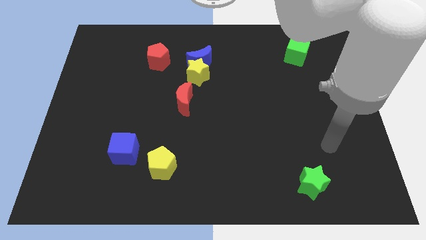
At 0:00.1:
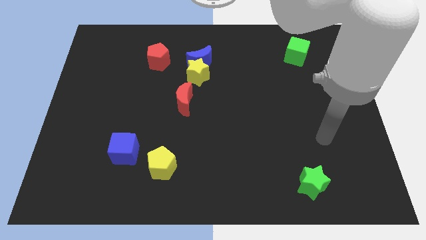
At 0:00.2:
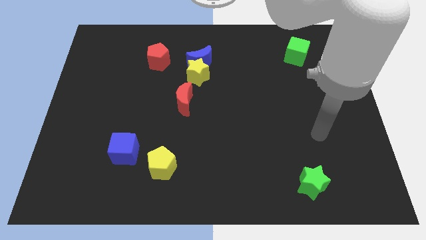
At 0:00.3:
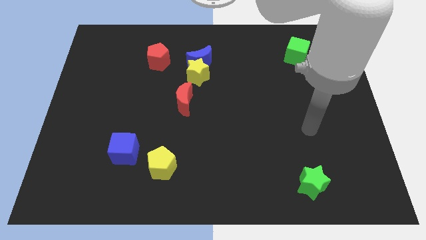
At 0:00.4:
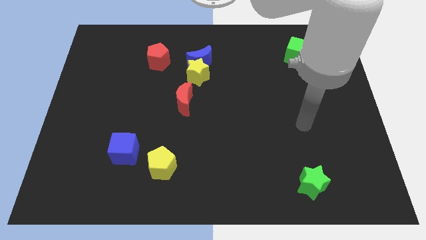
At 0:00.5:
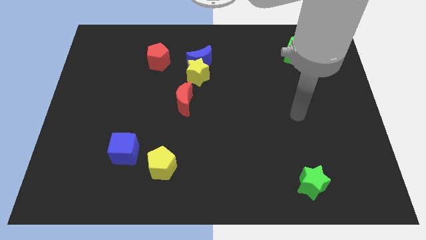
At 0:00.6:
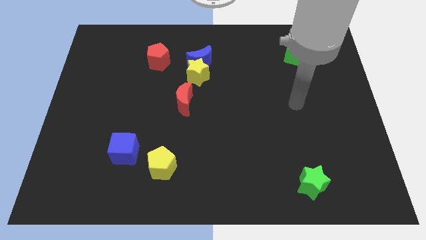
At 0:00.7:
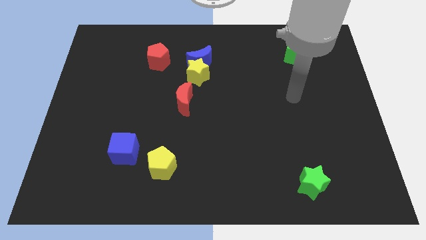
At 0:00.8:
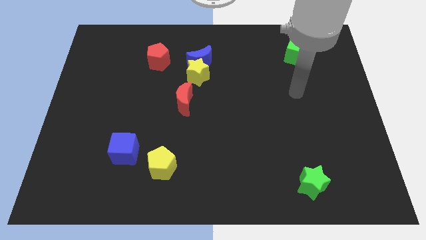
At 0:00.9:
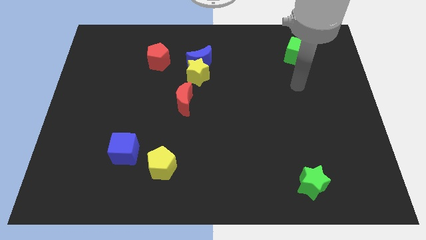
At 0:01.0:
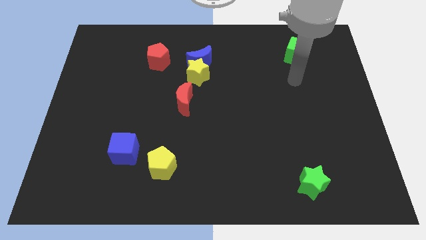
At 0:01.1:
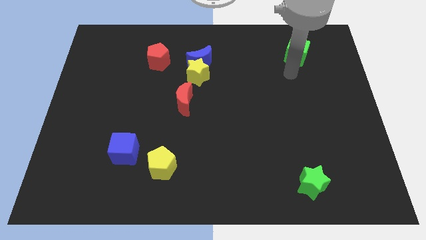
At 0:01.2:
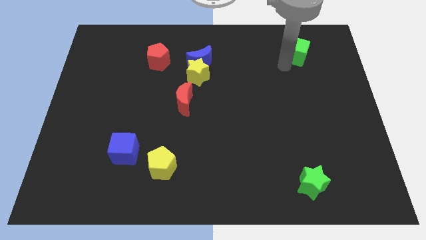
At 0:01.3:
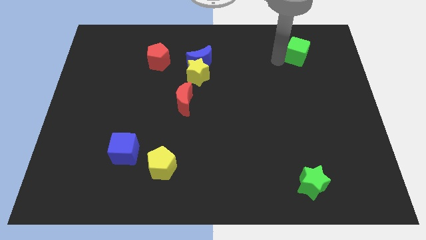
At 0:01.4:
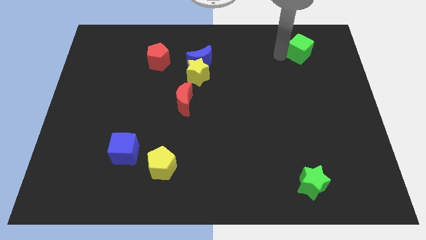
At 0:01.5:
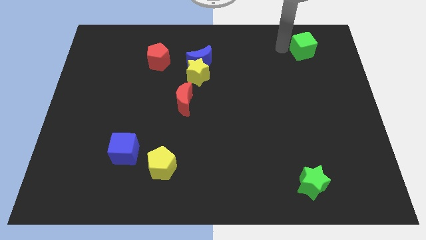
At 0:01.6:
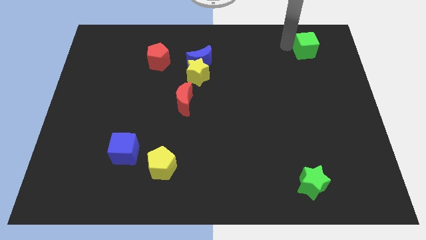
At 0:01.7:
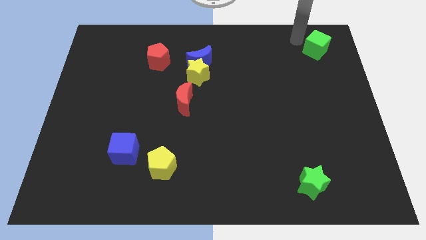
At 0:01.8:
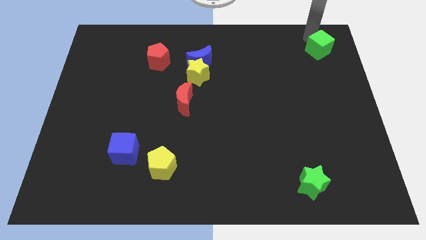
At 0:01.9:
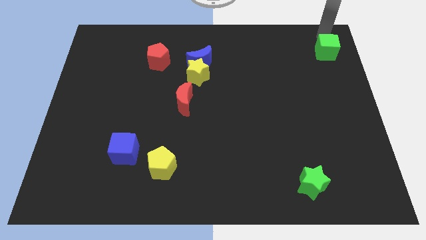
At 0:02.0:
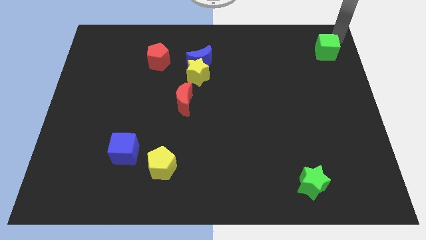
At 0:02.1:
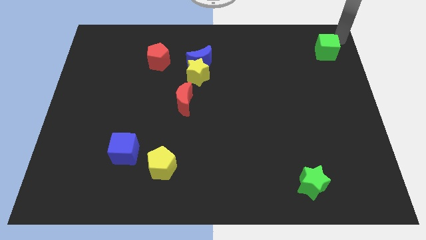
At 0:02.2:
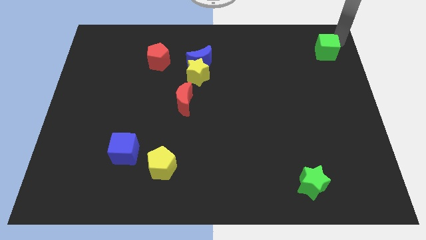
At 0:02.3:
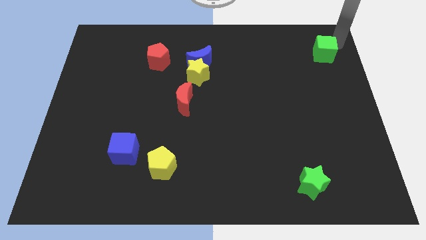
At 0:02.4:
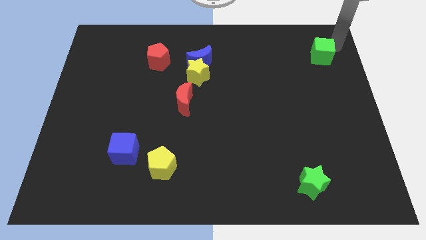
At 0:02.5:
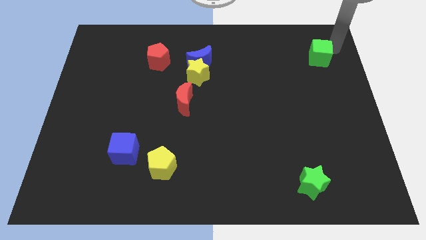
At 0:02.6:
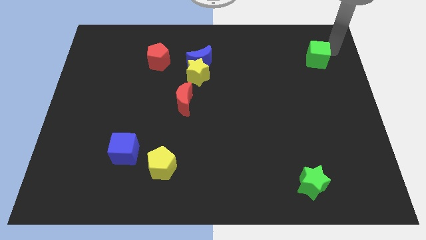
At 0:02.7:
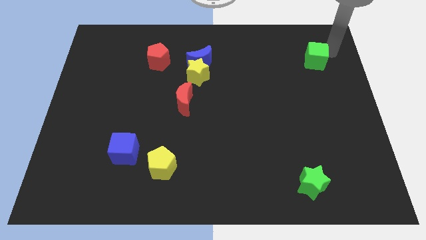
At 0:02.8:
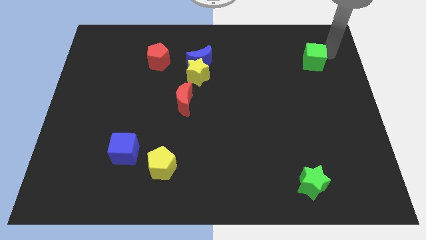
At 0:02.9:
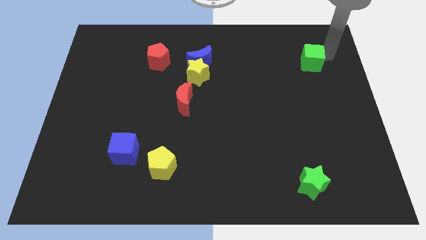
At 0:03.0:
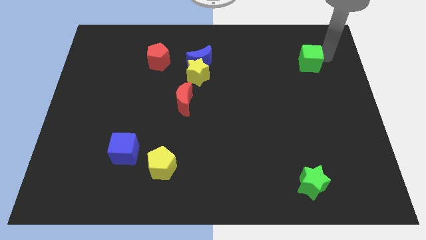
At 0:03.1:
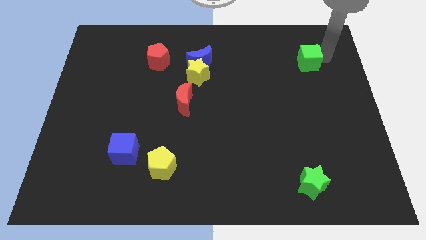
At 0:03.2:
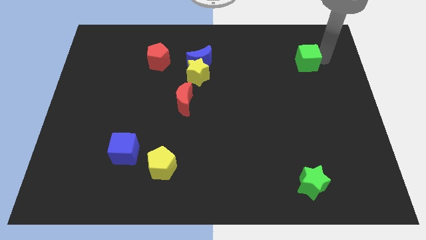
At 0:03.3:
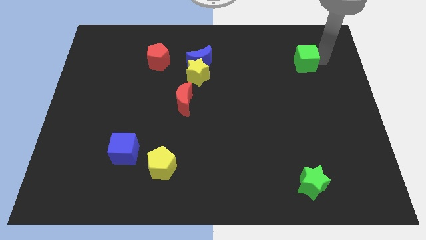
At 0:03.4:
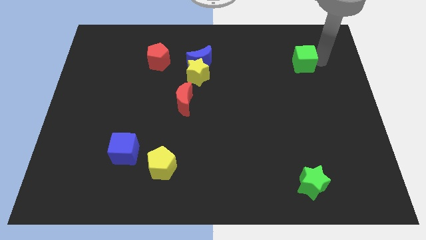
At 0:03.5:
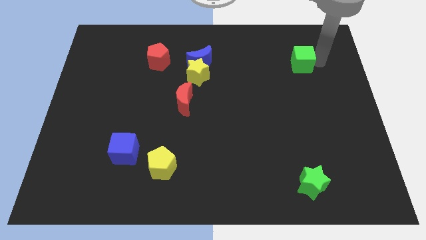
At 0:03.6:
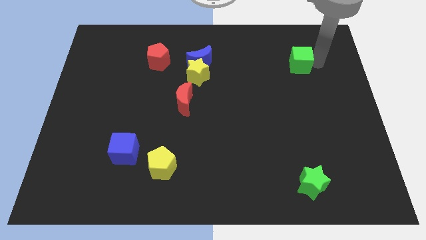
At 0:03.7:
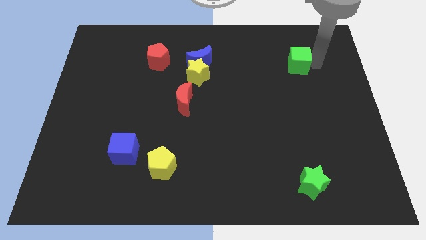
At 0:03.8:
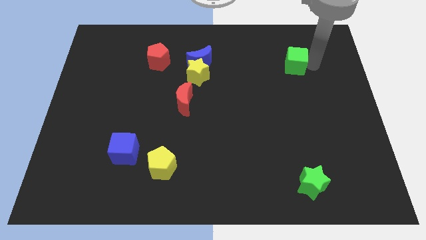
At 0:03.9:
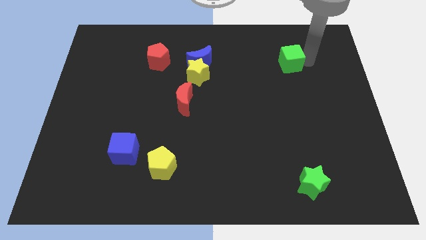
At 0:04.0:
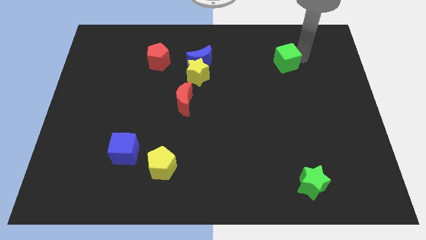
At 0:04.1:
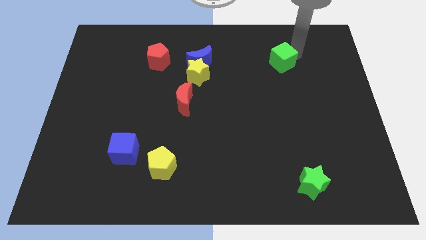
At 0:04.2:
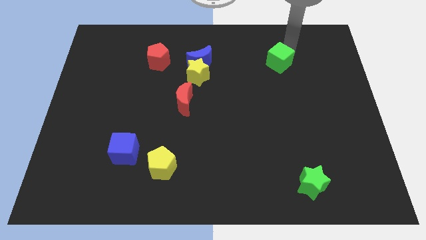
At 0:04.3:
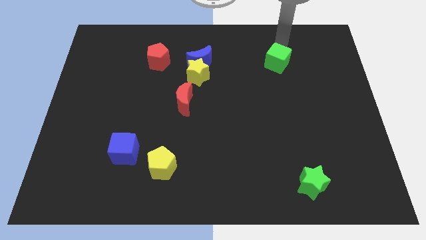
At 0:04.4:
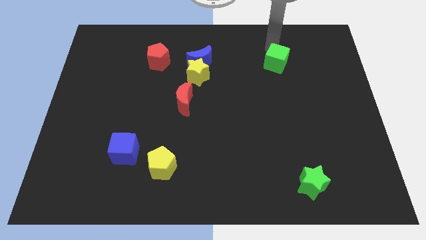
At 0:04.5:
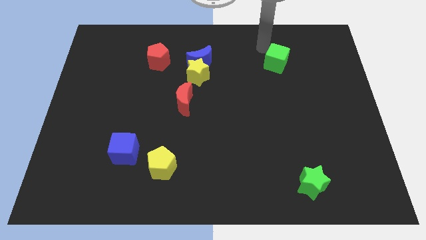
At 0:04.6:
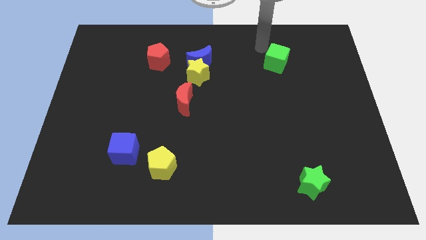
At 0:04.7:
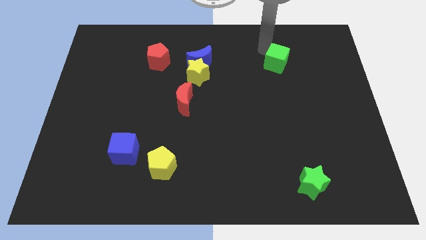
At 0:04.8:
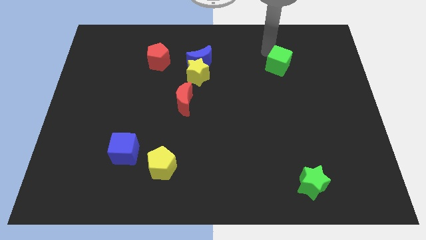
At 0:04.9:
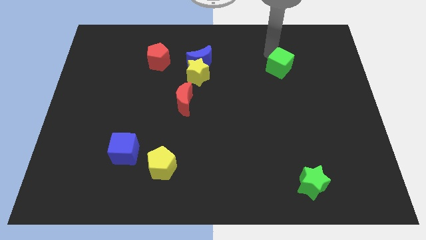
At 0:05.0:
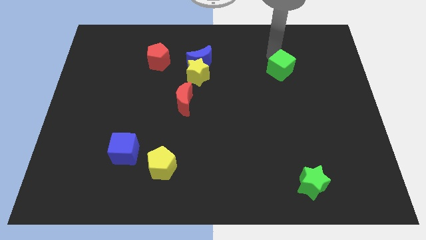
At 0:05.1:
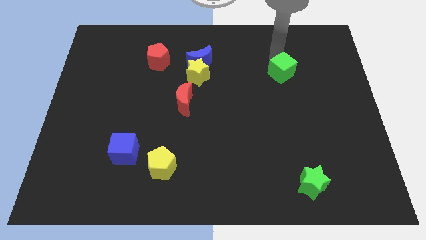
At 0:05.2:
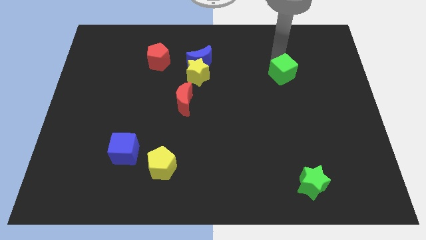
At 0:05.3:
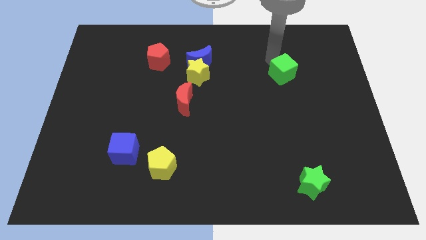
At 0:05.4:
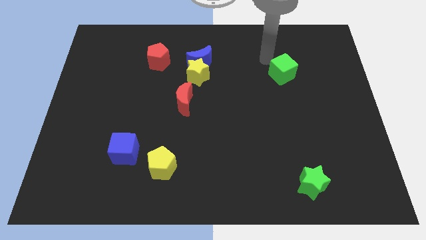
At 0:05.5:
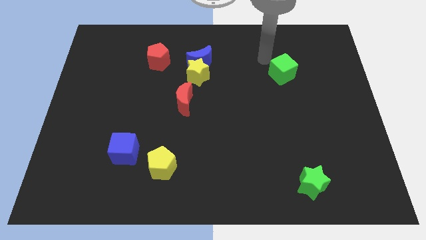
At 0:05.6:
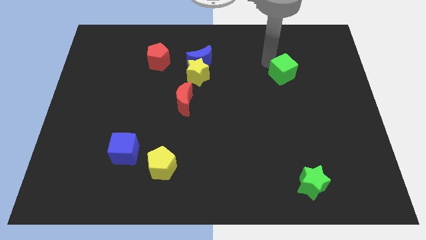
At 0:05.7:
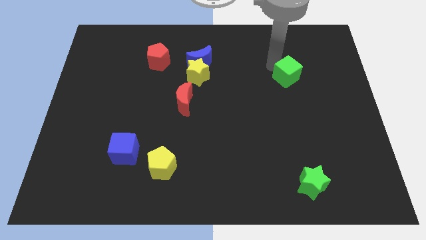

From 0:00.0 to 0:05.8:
slide the green cube down slightly

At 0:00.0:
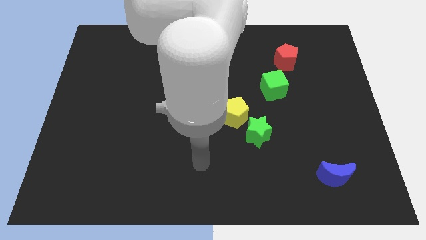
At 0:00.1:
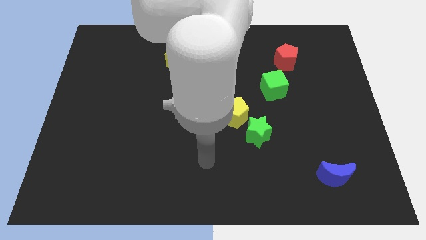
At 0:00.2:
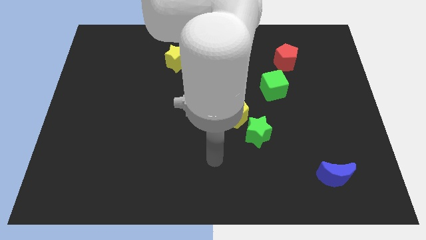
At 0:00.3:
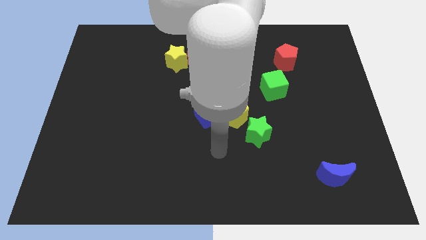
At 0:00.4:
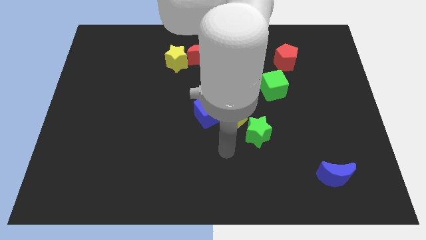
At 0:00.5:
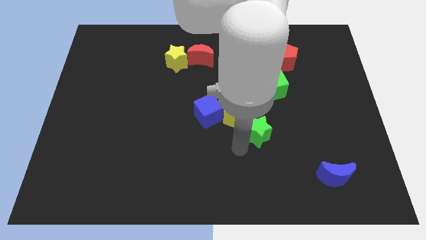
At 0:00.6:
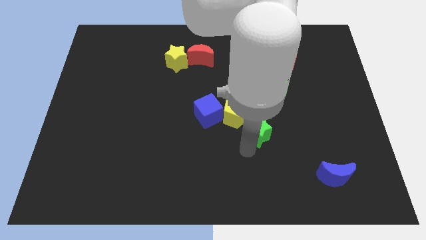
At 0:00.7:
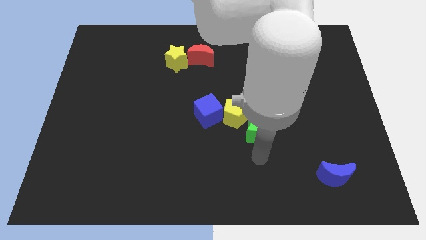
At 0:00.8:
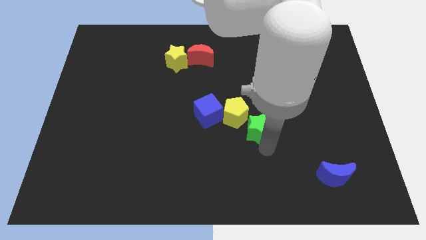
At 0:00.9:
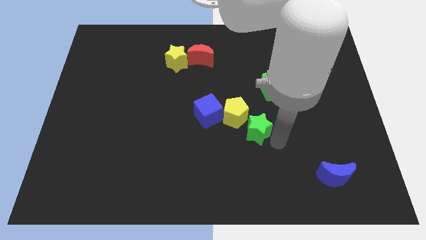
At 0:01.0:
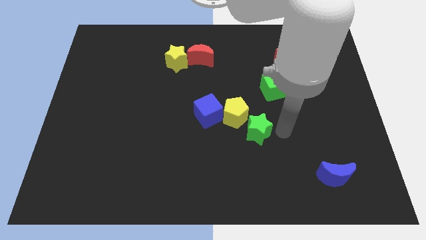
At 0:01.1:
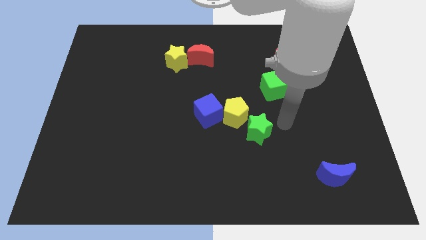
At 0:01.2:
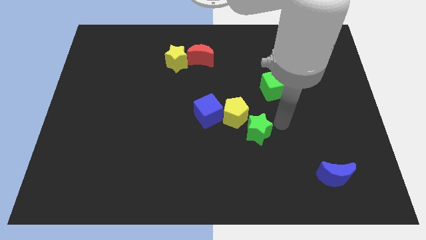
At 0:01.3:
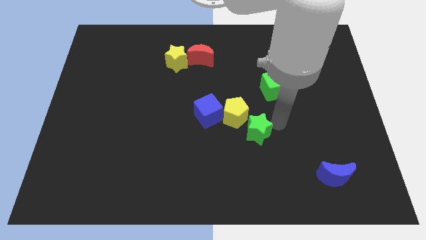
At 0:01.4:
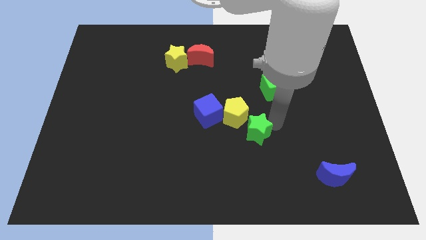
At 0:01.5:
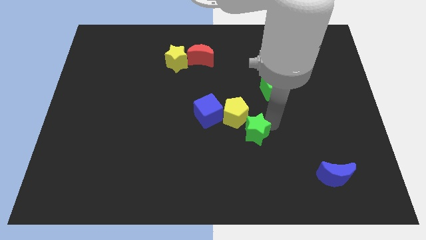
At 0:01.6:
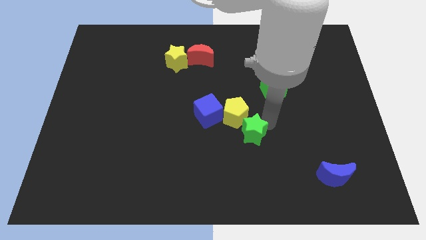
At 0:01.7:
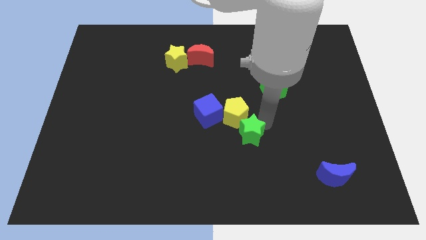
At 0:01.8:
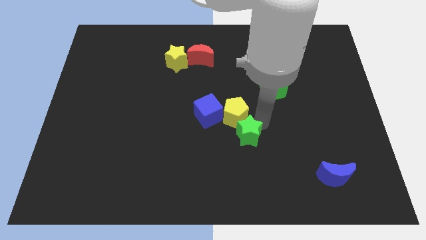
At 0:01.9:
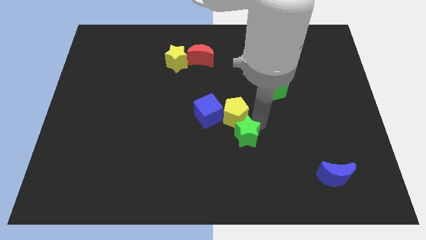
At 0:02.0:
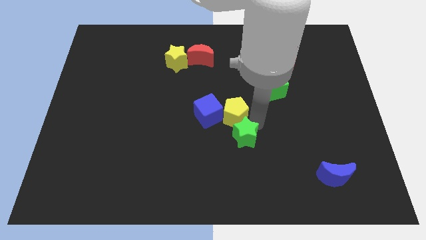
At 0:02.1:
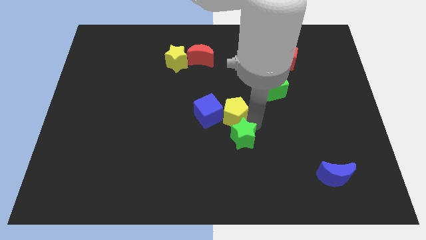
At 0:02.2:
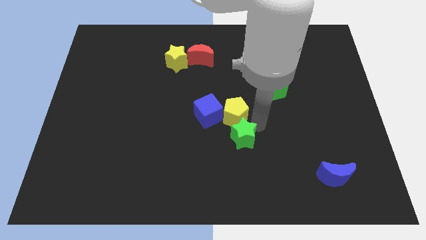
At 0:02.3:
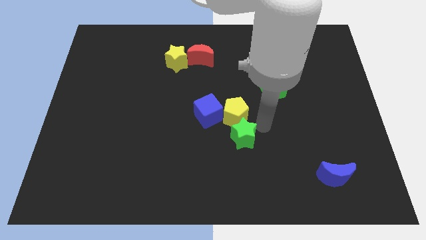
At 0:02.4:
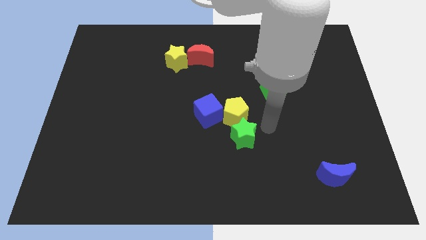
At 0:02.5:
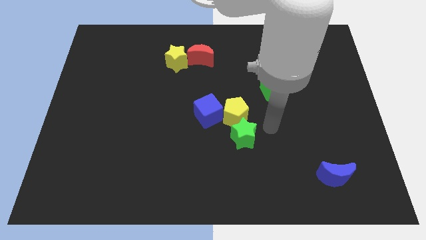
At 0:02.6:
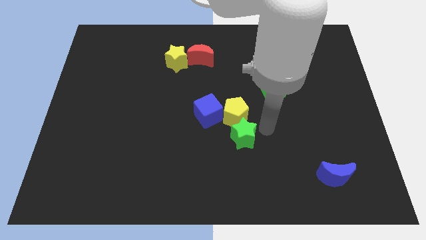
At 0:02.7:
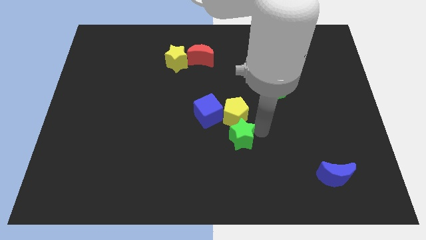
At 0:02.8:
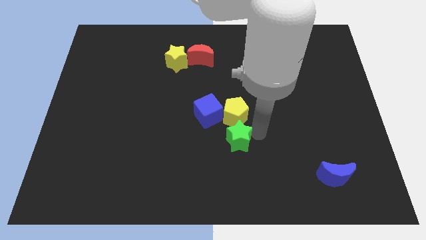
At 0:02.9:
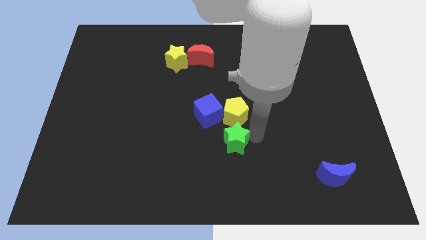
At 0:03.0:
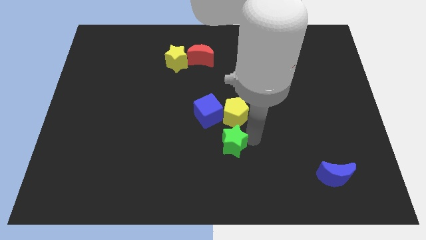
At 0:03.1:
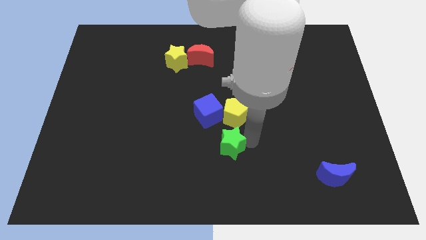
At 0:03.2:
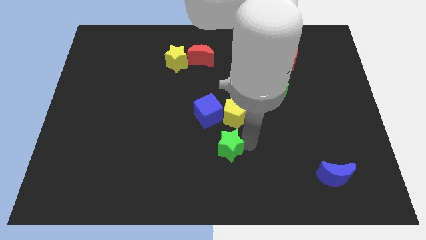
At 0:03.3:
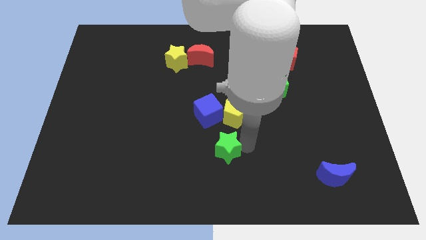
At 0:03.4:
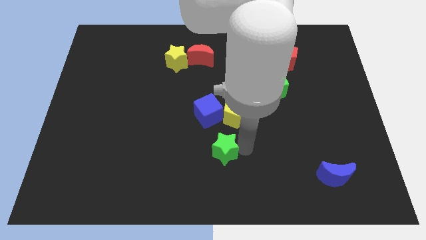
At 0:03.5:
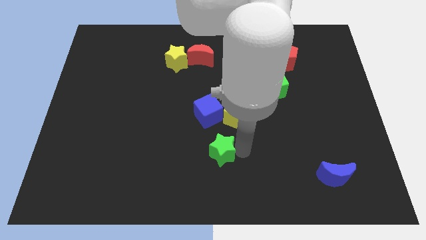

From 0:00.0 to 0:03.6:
move the green star to the left a little bit
